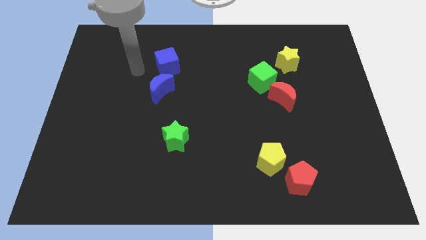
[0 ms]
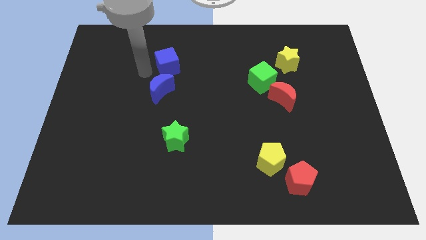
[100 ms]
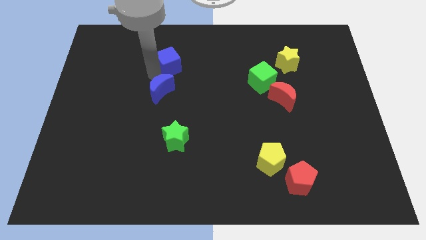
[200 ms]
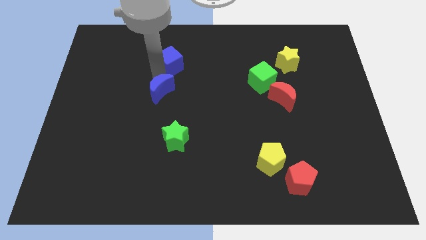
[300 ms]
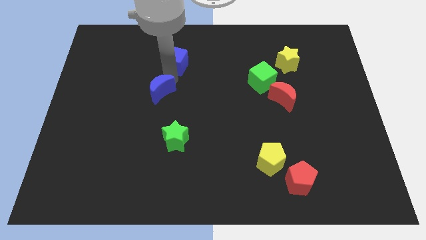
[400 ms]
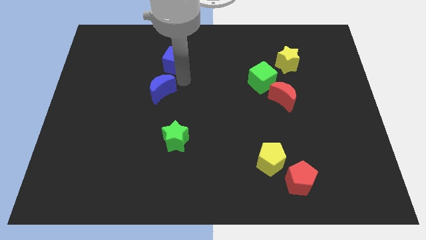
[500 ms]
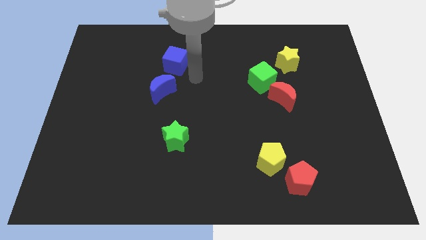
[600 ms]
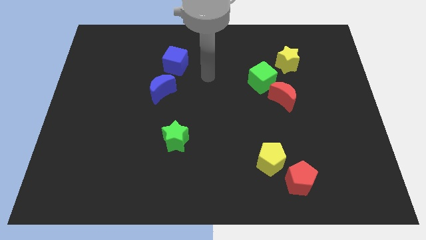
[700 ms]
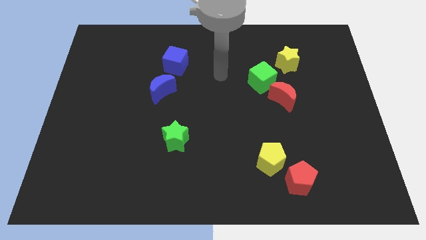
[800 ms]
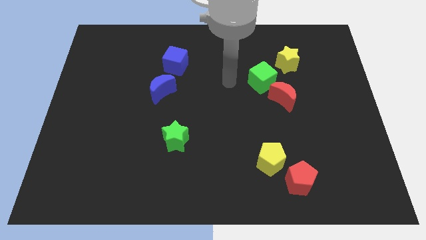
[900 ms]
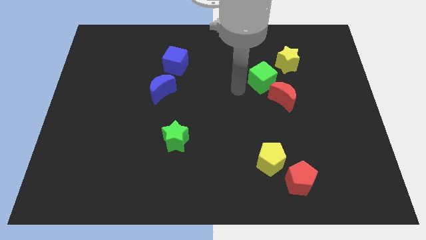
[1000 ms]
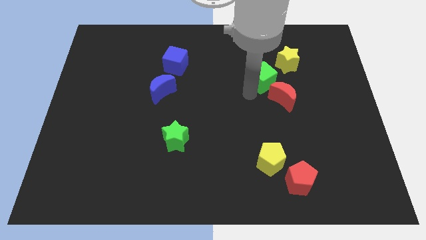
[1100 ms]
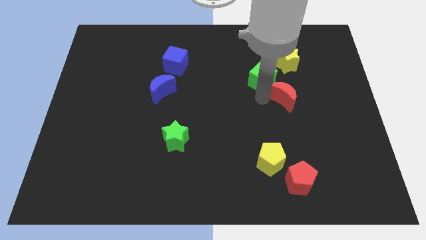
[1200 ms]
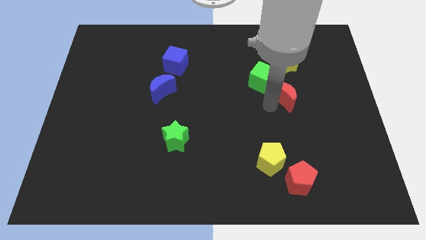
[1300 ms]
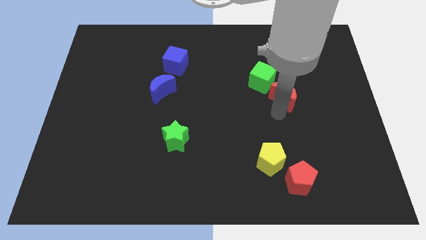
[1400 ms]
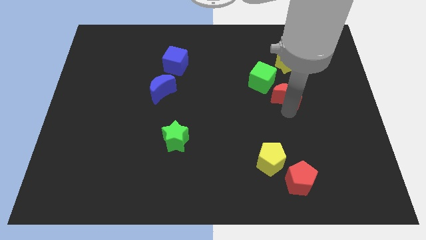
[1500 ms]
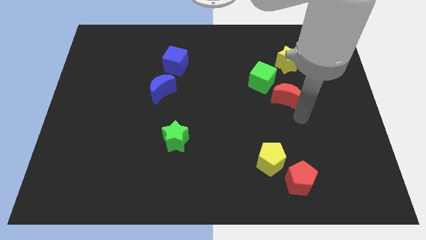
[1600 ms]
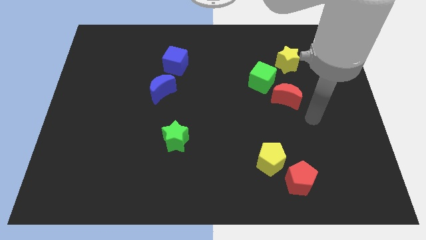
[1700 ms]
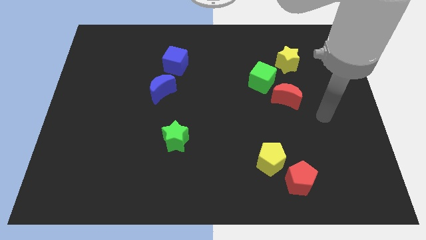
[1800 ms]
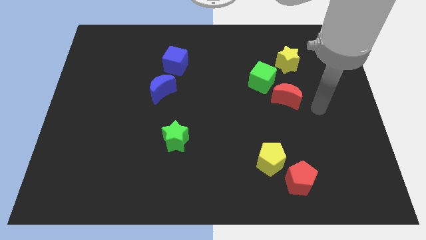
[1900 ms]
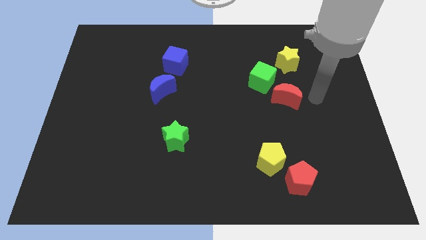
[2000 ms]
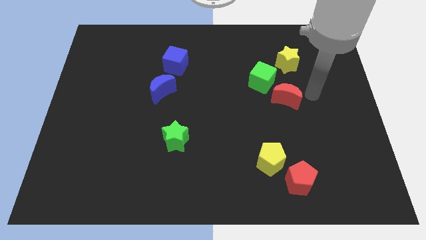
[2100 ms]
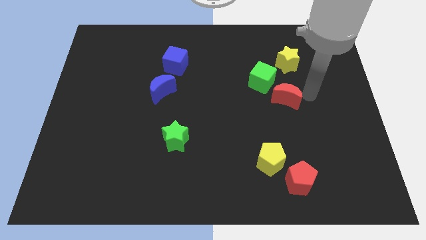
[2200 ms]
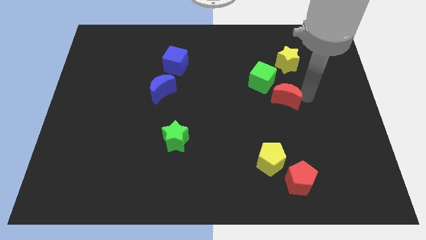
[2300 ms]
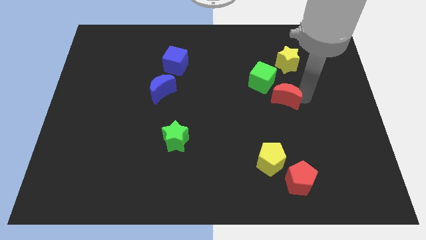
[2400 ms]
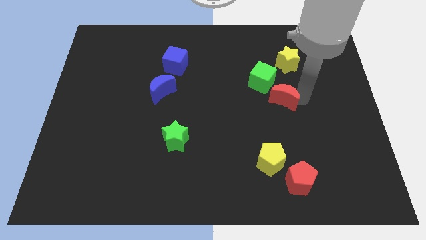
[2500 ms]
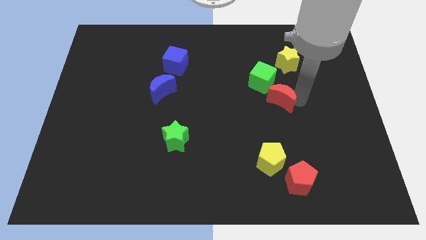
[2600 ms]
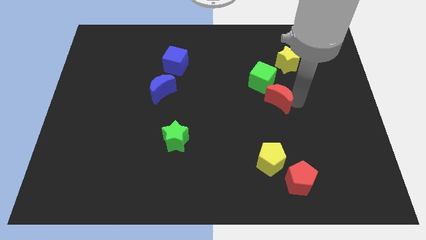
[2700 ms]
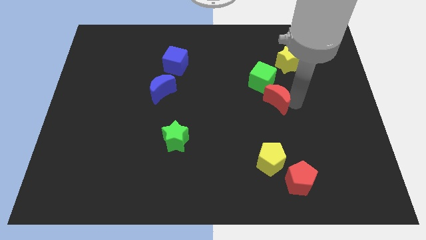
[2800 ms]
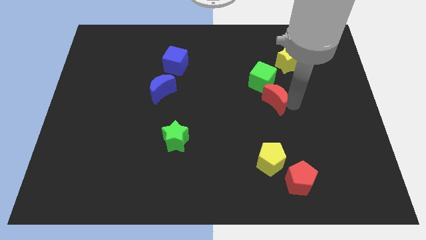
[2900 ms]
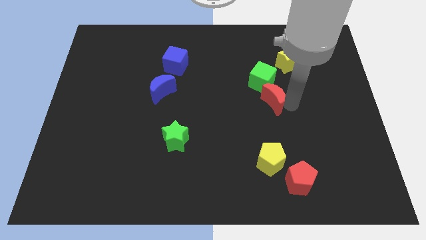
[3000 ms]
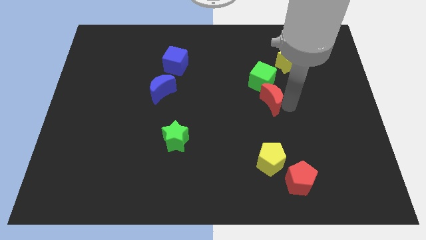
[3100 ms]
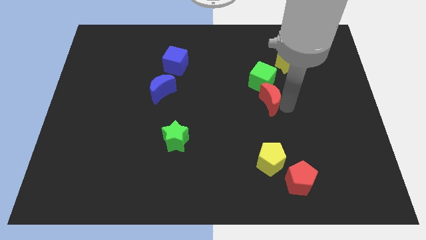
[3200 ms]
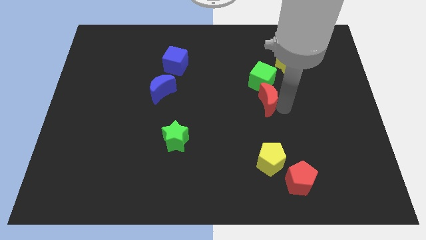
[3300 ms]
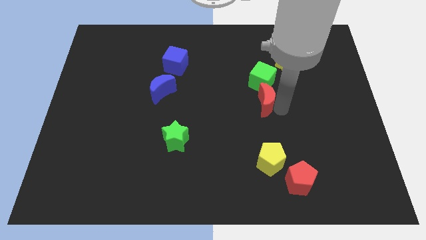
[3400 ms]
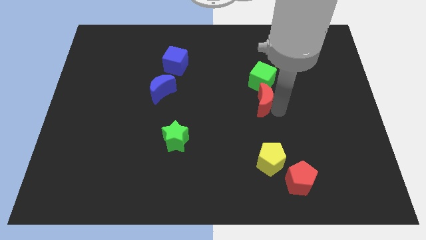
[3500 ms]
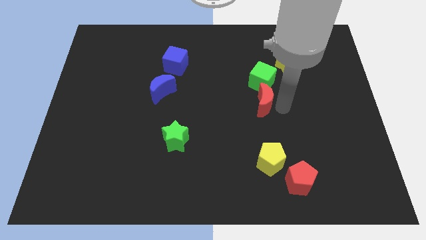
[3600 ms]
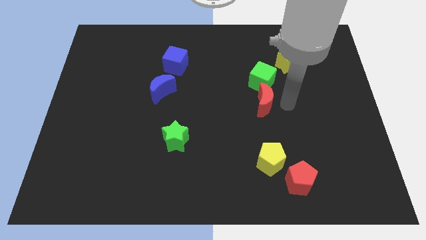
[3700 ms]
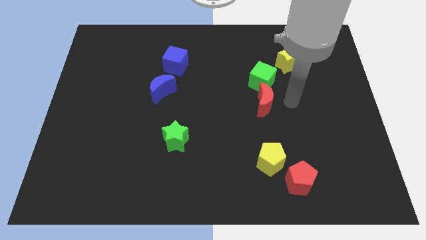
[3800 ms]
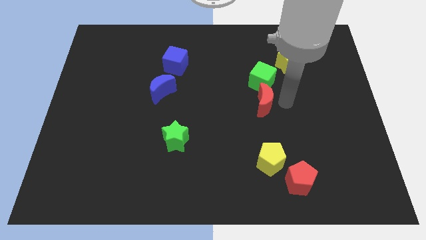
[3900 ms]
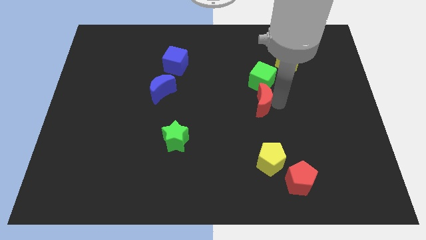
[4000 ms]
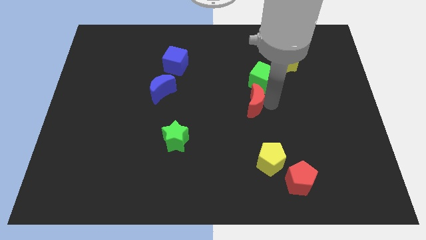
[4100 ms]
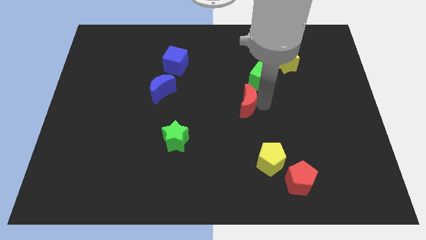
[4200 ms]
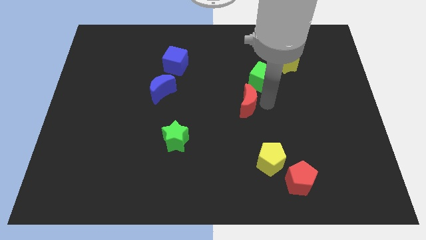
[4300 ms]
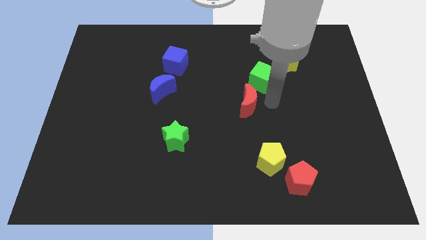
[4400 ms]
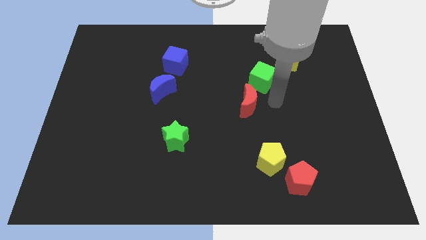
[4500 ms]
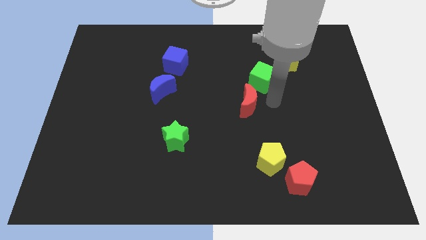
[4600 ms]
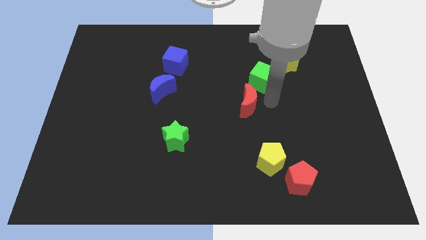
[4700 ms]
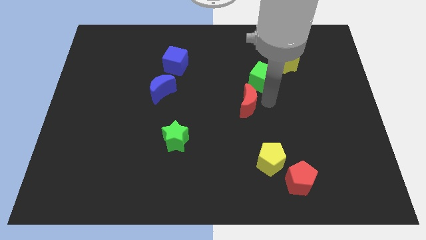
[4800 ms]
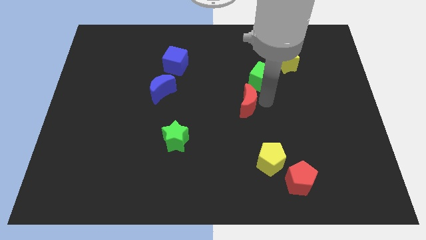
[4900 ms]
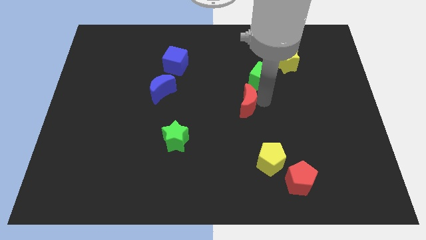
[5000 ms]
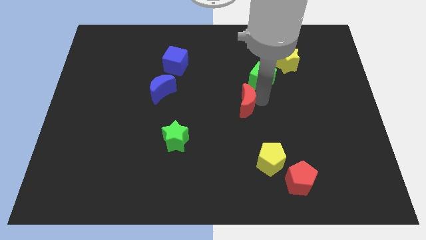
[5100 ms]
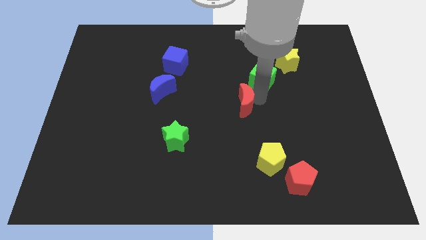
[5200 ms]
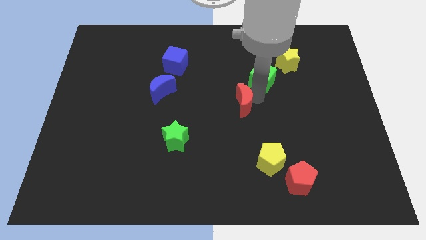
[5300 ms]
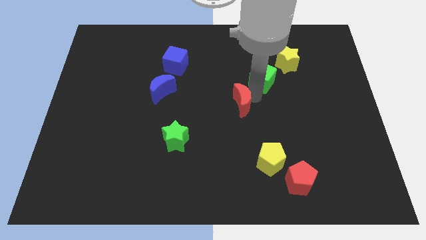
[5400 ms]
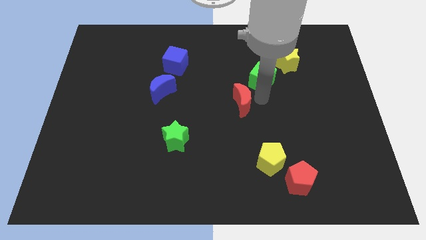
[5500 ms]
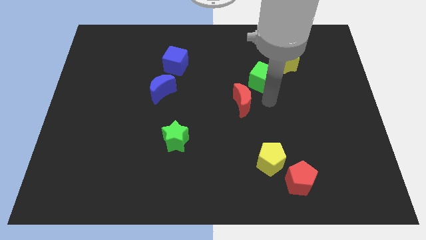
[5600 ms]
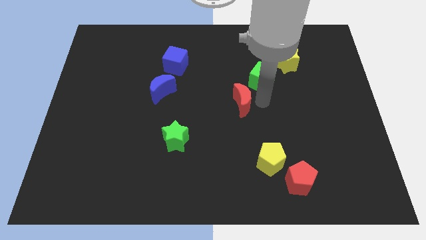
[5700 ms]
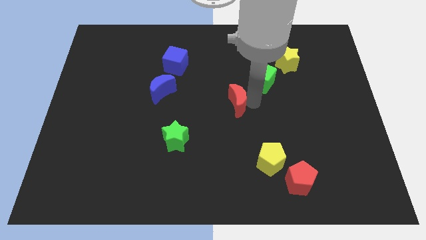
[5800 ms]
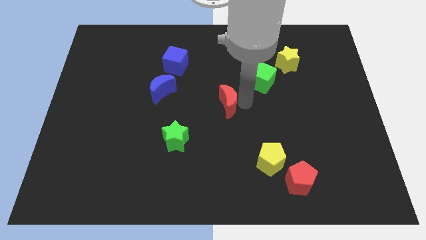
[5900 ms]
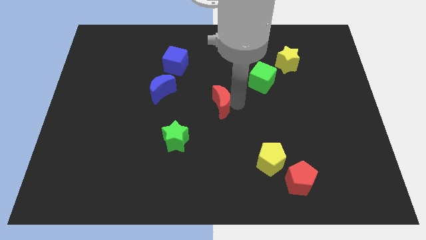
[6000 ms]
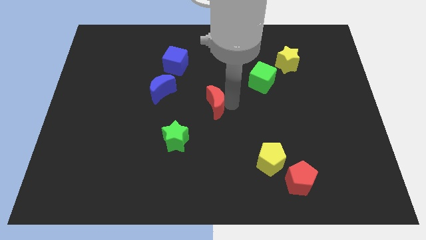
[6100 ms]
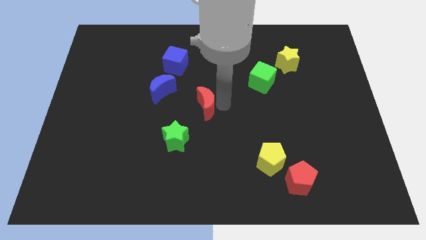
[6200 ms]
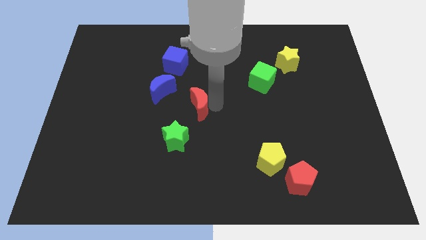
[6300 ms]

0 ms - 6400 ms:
push the red moon diagonally down and to the right of the blue moon

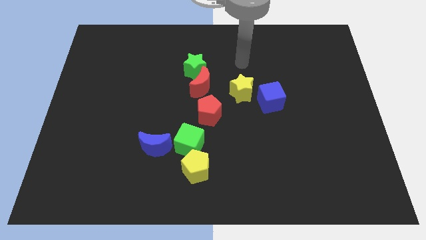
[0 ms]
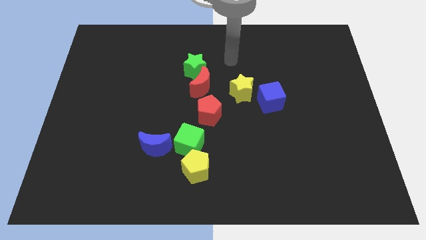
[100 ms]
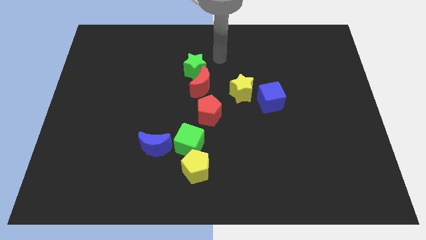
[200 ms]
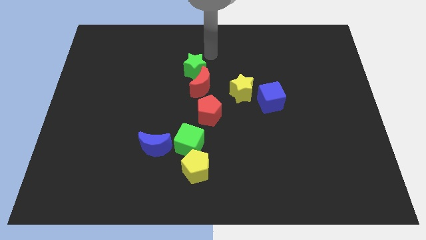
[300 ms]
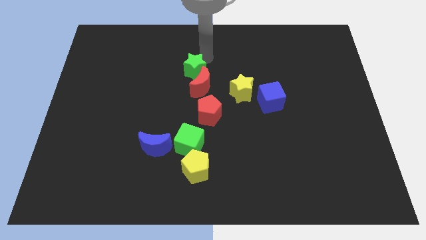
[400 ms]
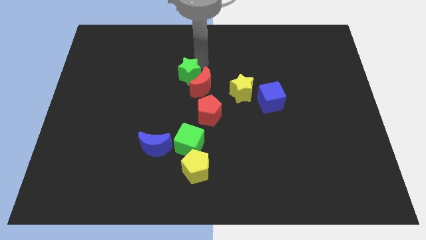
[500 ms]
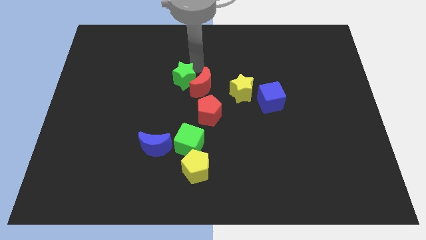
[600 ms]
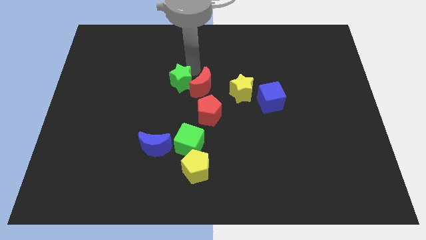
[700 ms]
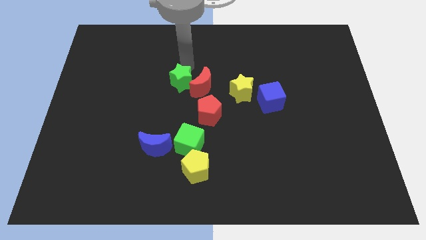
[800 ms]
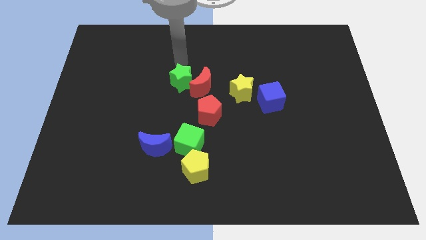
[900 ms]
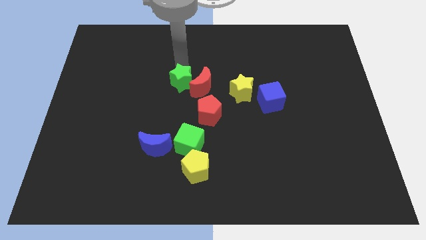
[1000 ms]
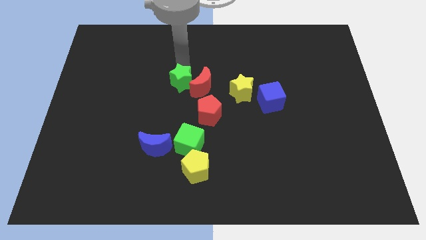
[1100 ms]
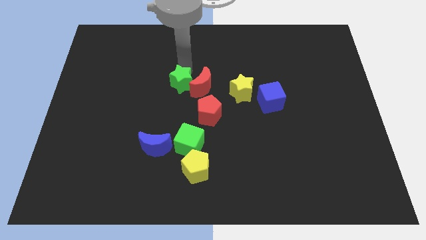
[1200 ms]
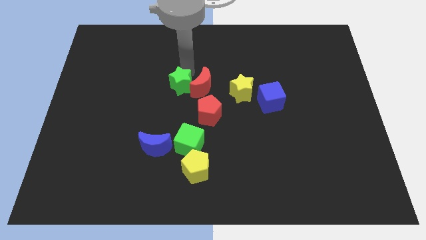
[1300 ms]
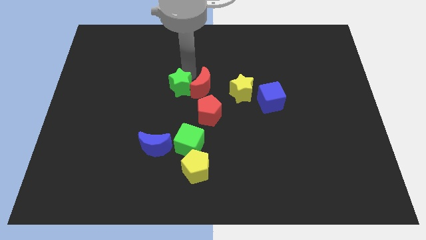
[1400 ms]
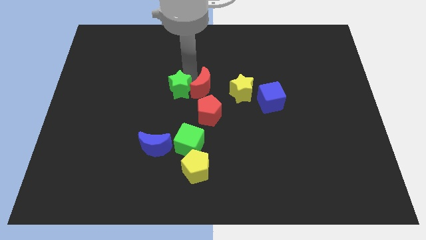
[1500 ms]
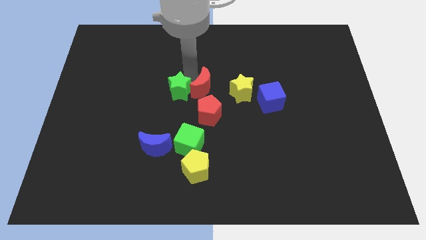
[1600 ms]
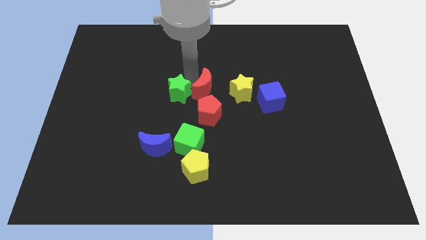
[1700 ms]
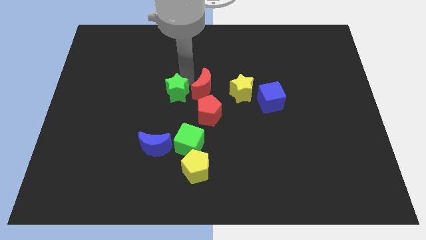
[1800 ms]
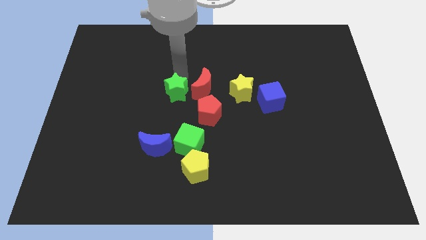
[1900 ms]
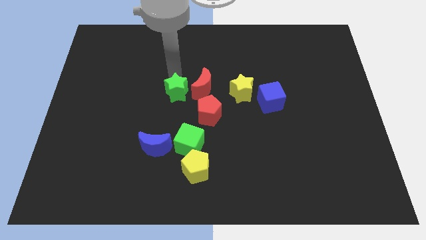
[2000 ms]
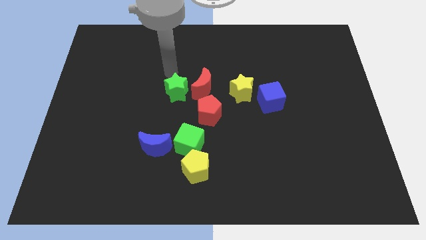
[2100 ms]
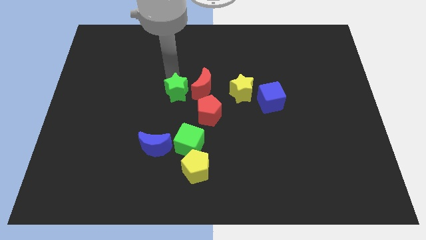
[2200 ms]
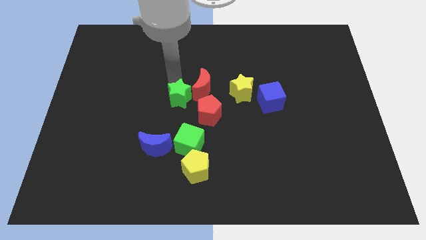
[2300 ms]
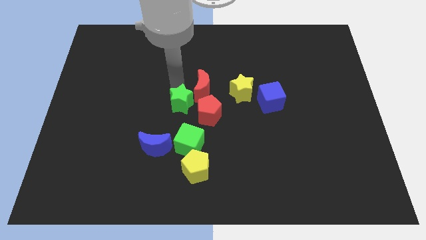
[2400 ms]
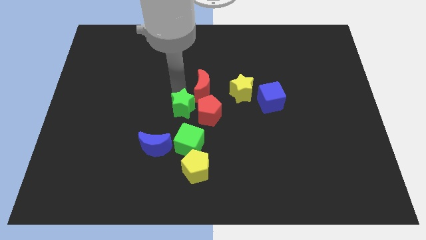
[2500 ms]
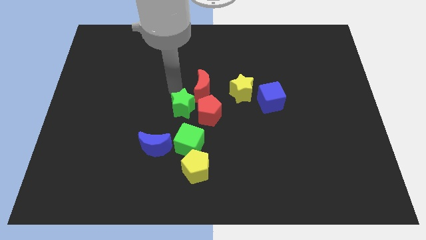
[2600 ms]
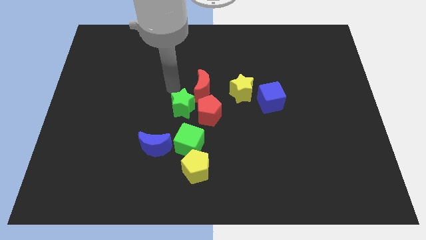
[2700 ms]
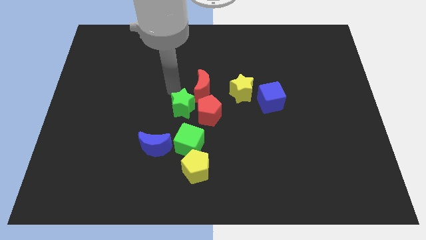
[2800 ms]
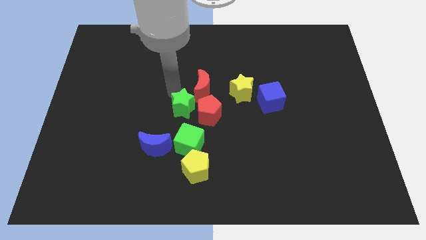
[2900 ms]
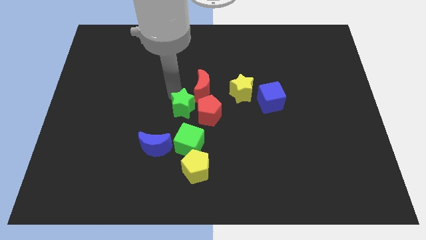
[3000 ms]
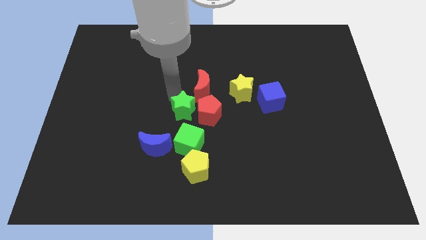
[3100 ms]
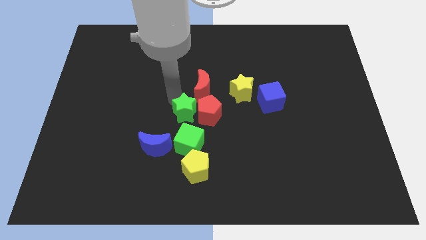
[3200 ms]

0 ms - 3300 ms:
move the green star above the yellow pentagon
